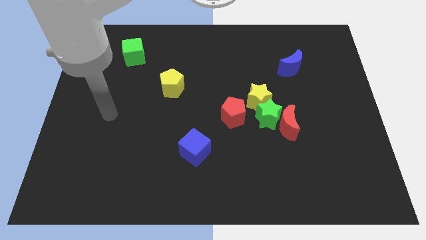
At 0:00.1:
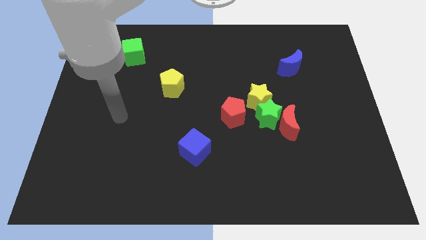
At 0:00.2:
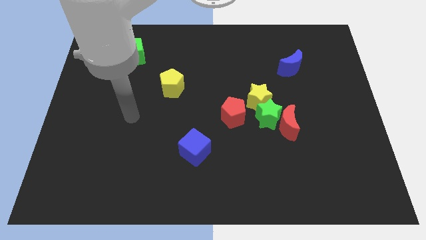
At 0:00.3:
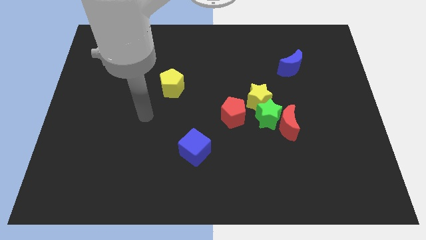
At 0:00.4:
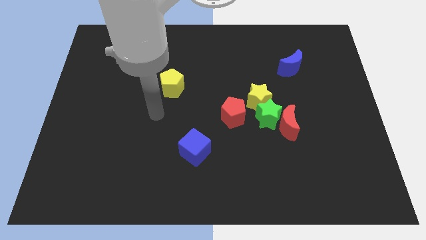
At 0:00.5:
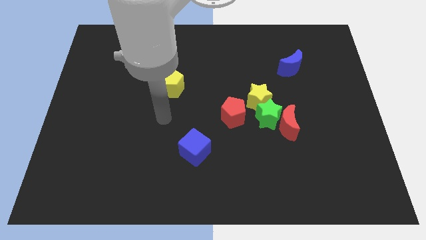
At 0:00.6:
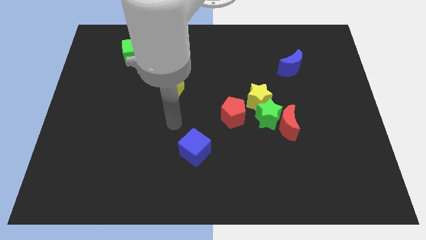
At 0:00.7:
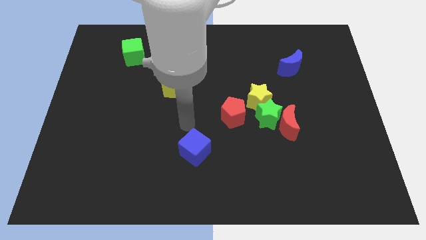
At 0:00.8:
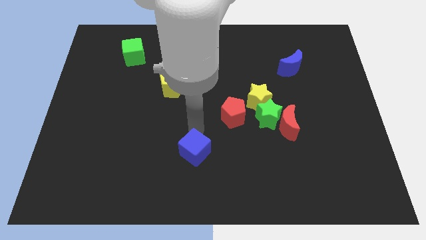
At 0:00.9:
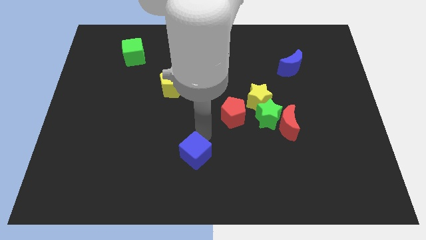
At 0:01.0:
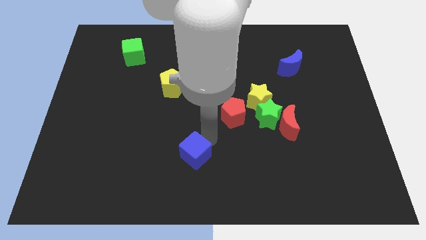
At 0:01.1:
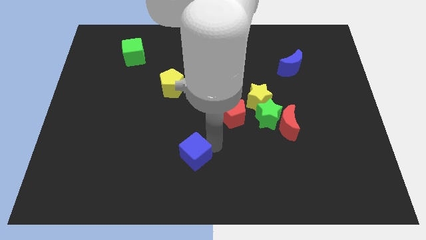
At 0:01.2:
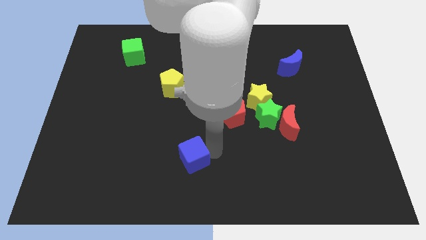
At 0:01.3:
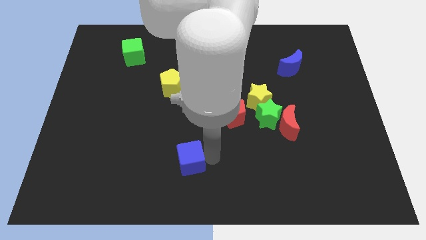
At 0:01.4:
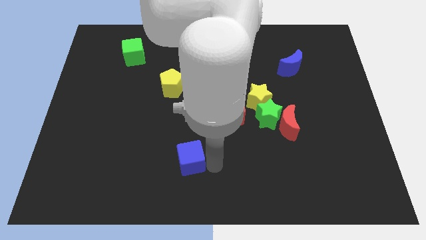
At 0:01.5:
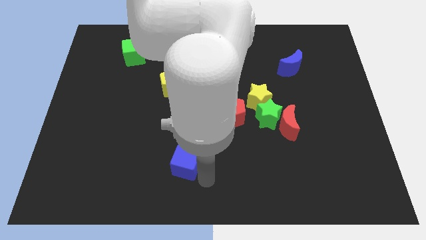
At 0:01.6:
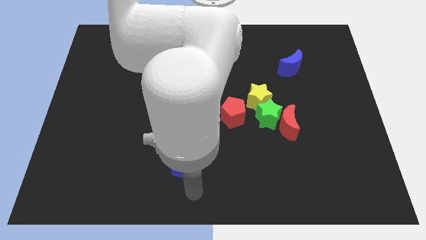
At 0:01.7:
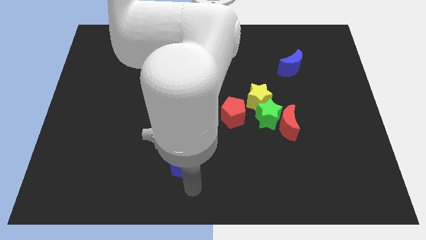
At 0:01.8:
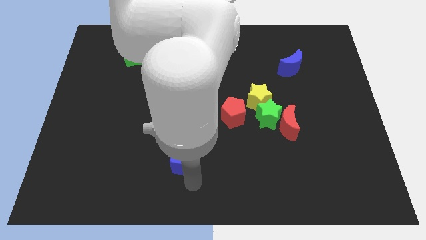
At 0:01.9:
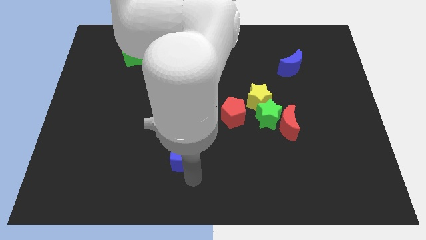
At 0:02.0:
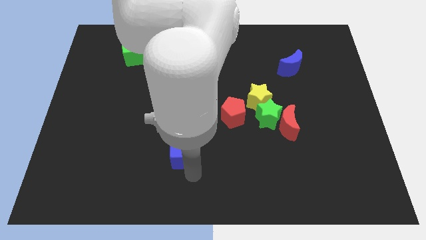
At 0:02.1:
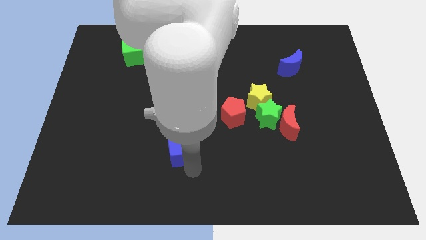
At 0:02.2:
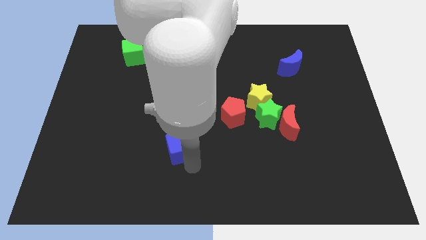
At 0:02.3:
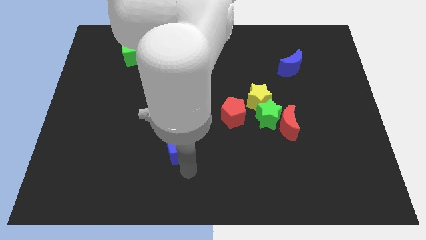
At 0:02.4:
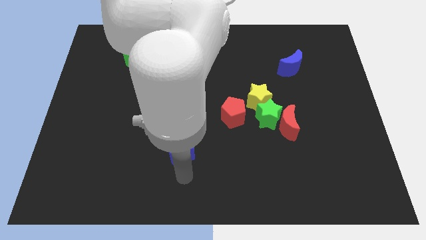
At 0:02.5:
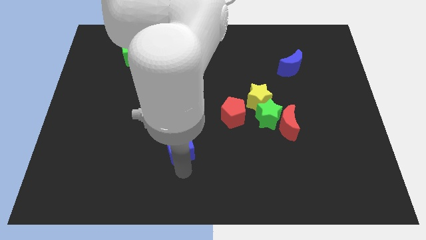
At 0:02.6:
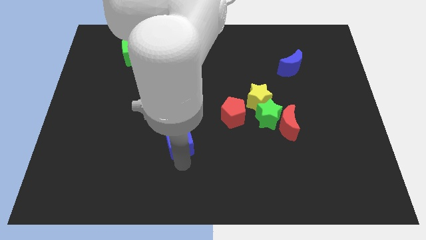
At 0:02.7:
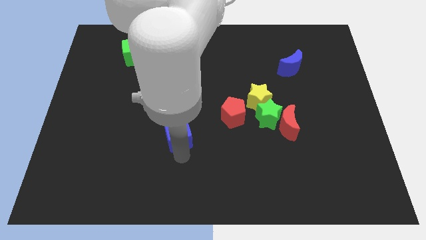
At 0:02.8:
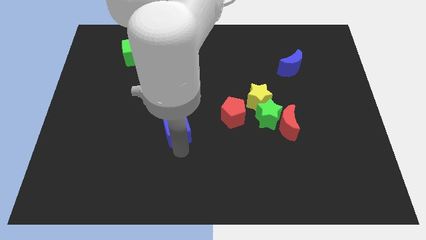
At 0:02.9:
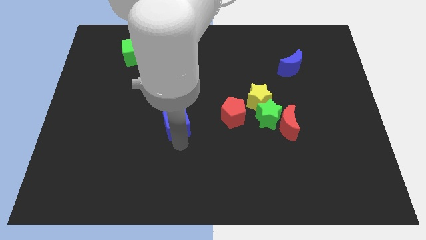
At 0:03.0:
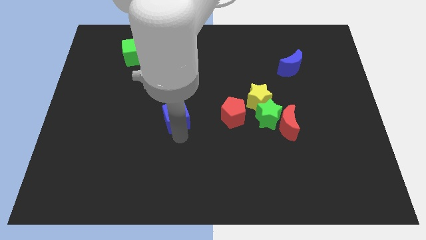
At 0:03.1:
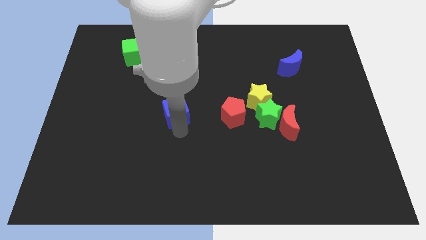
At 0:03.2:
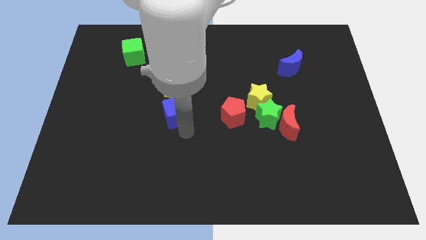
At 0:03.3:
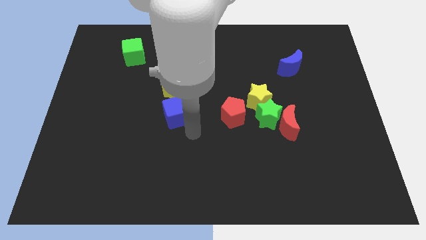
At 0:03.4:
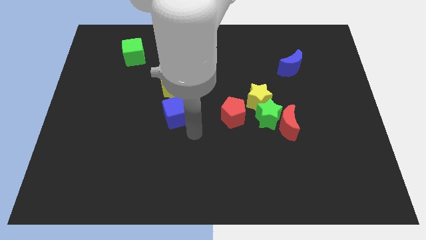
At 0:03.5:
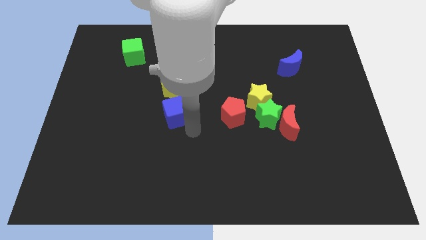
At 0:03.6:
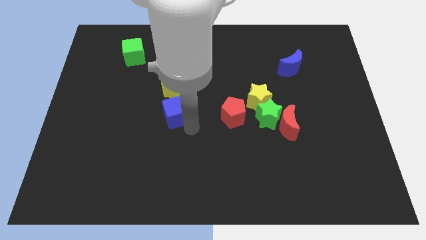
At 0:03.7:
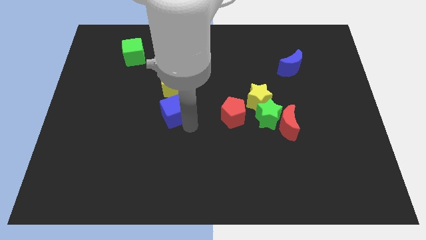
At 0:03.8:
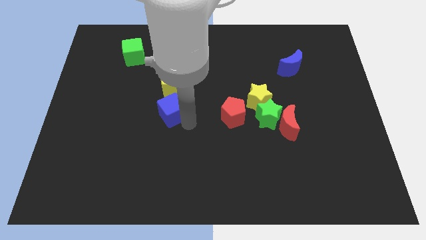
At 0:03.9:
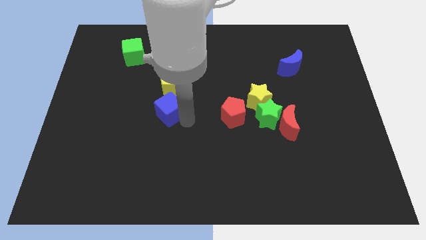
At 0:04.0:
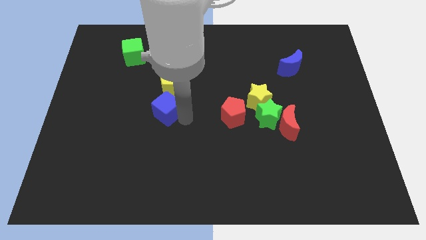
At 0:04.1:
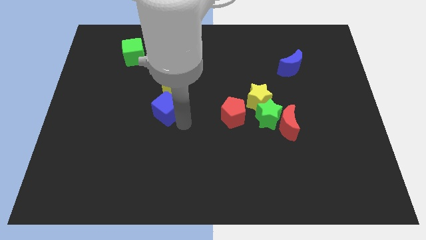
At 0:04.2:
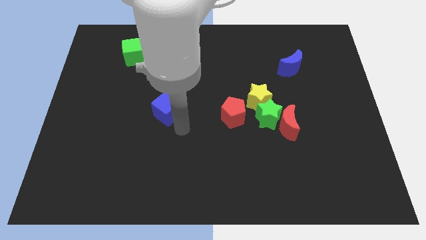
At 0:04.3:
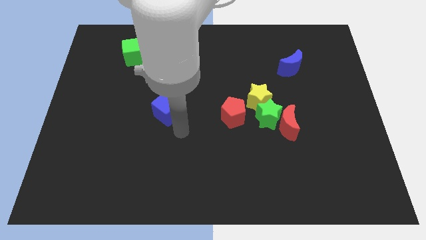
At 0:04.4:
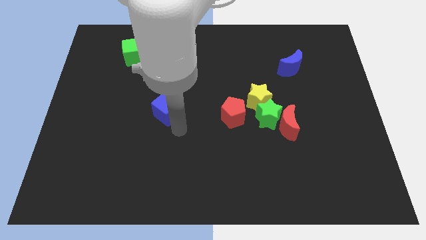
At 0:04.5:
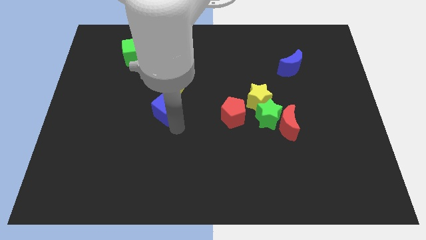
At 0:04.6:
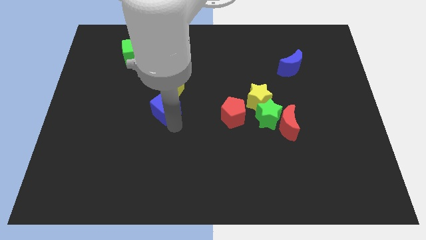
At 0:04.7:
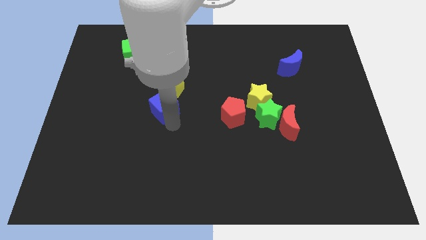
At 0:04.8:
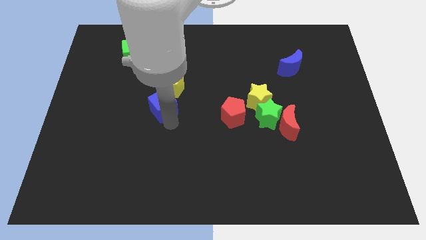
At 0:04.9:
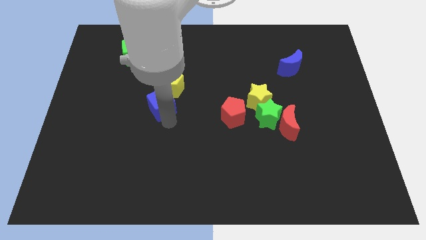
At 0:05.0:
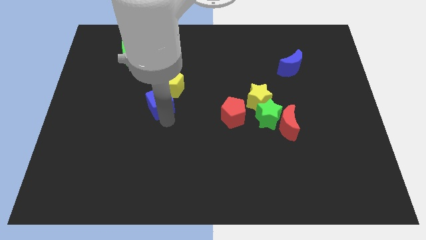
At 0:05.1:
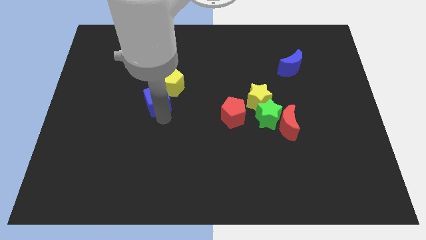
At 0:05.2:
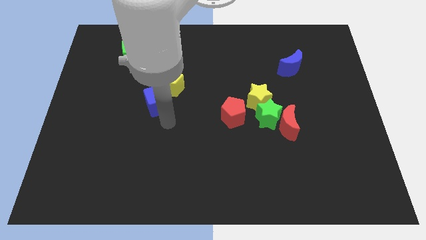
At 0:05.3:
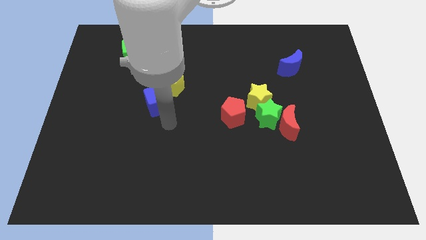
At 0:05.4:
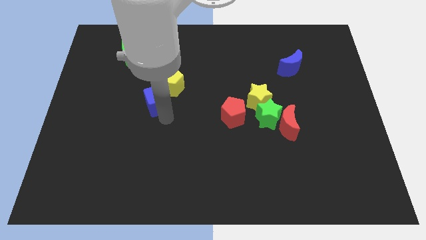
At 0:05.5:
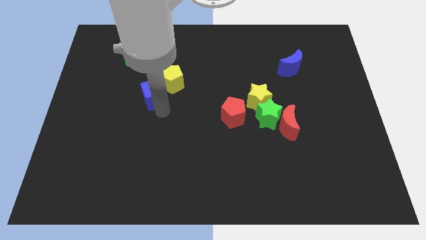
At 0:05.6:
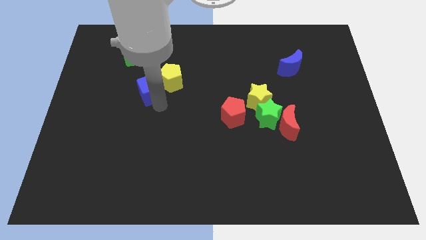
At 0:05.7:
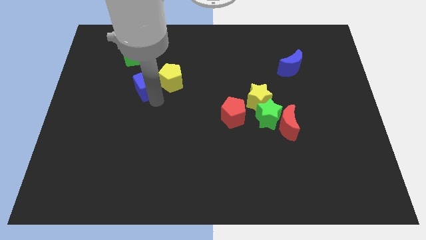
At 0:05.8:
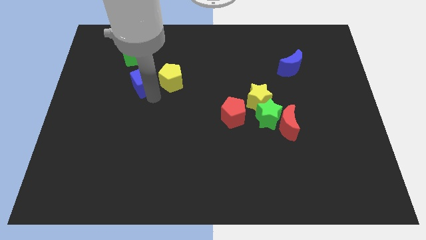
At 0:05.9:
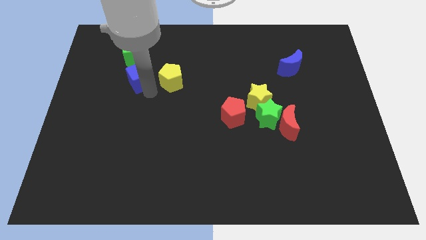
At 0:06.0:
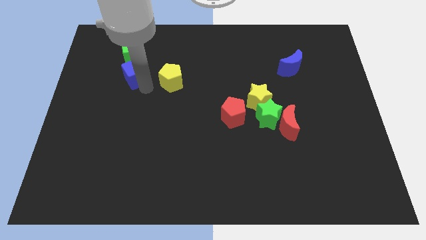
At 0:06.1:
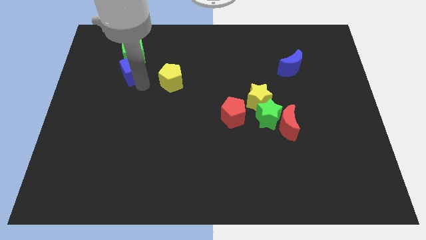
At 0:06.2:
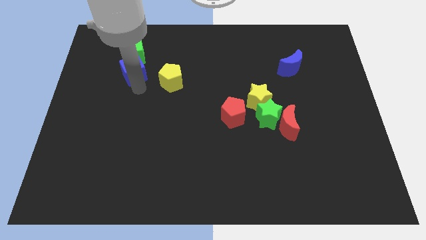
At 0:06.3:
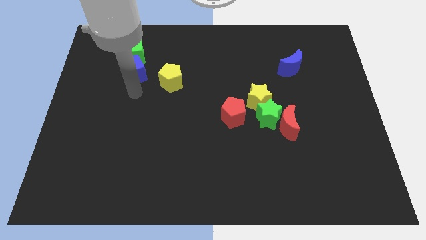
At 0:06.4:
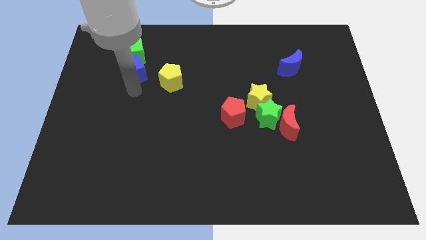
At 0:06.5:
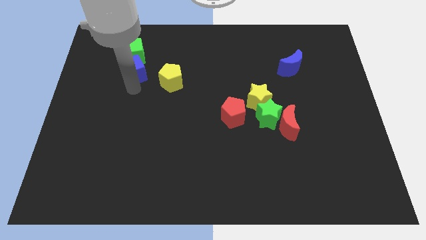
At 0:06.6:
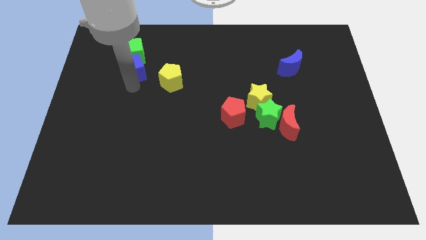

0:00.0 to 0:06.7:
move the blue cube next to the green cube

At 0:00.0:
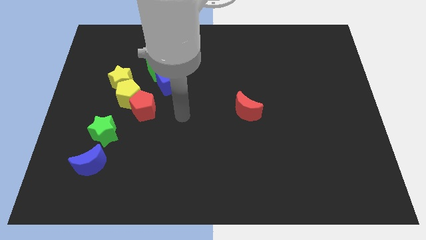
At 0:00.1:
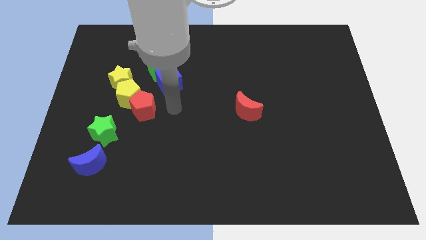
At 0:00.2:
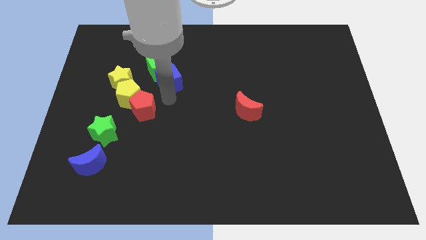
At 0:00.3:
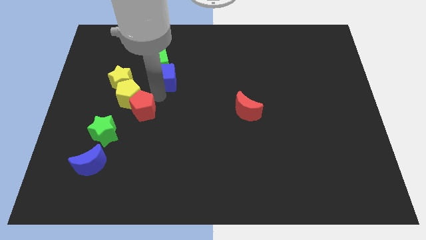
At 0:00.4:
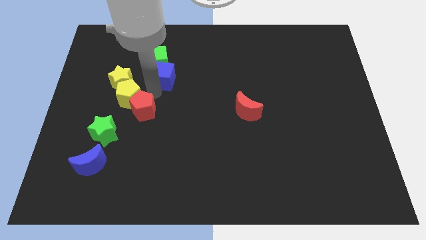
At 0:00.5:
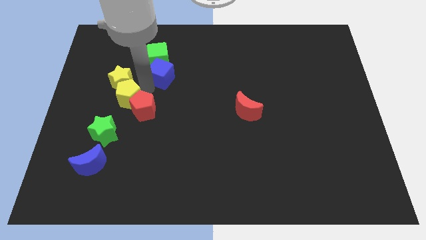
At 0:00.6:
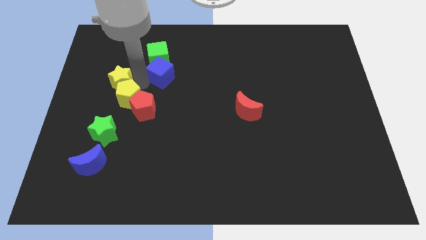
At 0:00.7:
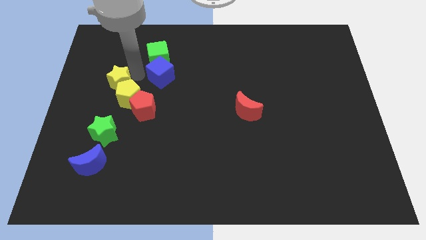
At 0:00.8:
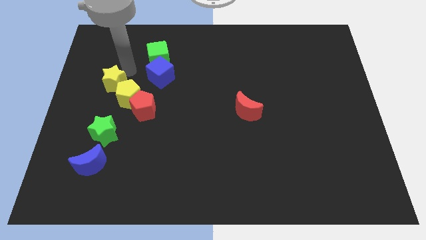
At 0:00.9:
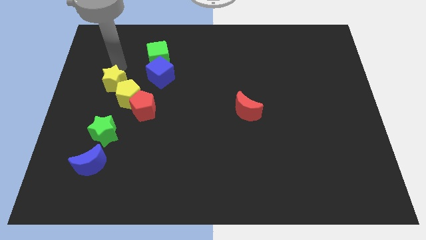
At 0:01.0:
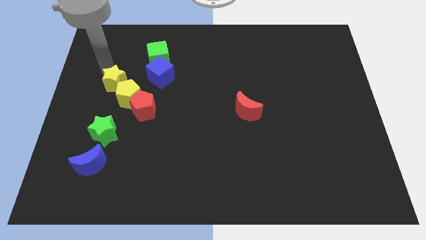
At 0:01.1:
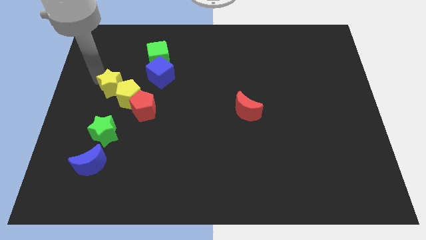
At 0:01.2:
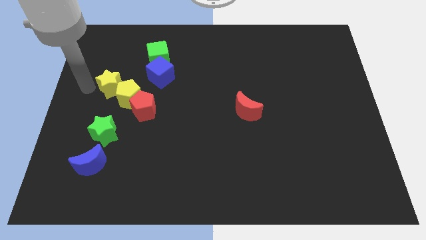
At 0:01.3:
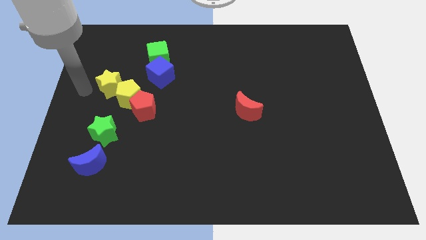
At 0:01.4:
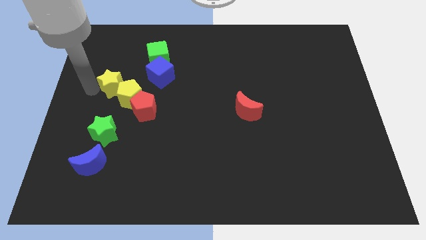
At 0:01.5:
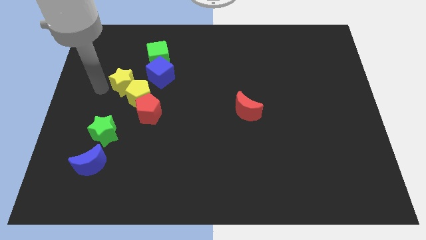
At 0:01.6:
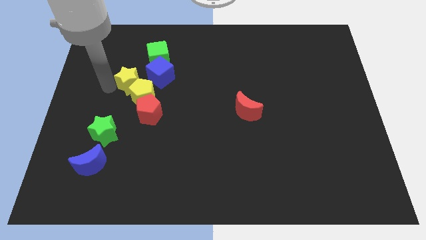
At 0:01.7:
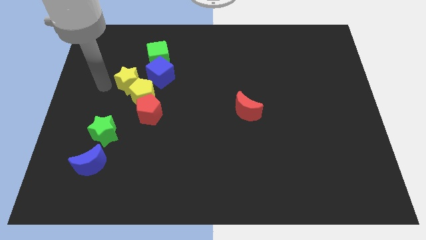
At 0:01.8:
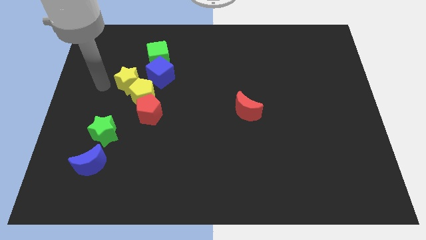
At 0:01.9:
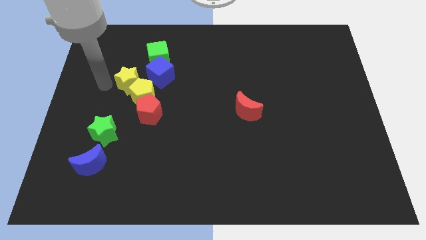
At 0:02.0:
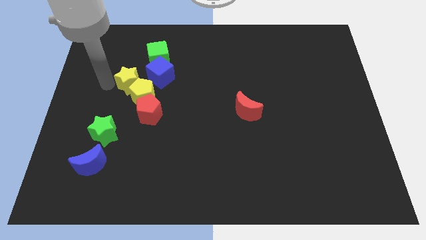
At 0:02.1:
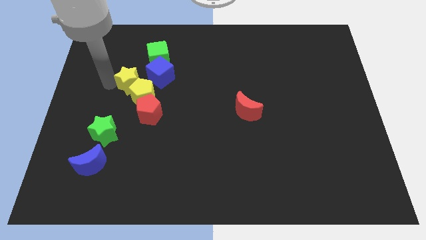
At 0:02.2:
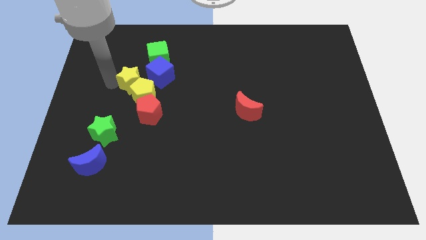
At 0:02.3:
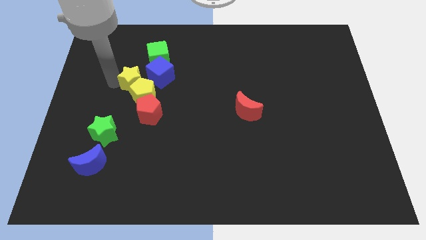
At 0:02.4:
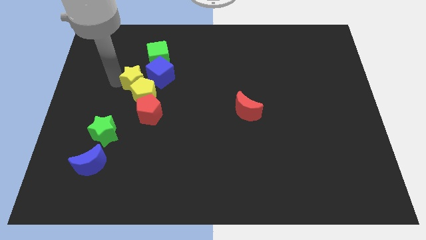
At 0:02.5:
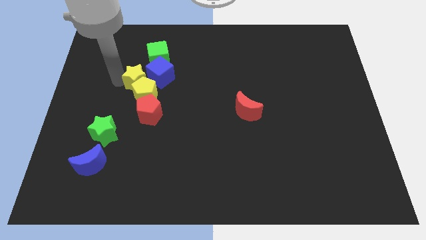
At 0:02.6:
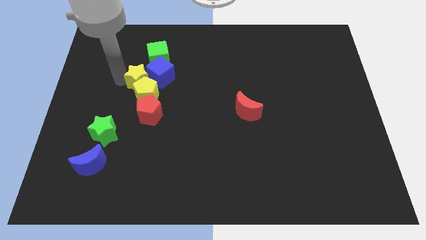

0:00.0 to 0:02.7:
slide the yellow star next to the blue cube
